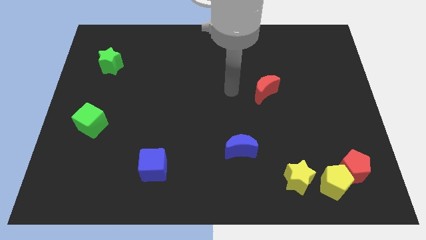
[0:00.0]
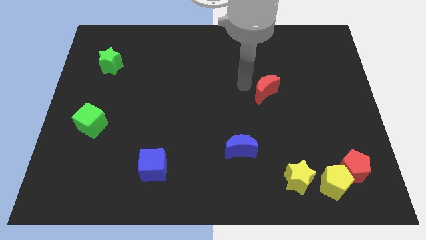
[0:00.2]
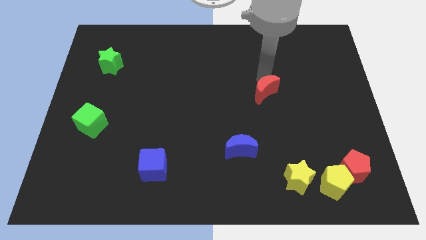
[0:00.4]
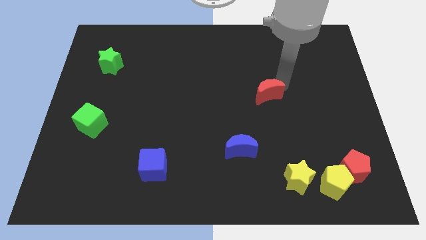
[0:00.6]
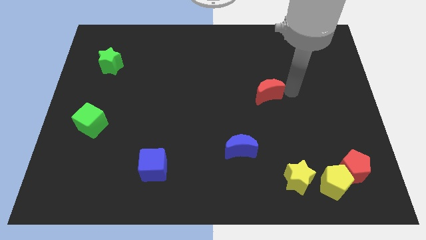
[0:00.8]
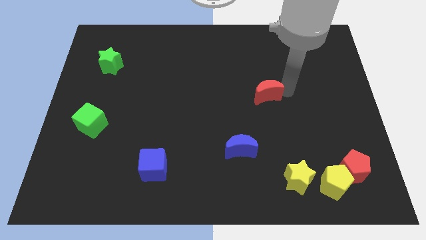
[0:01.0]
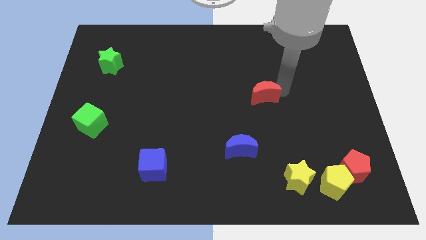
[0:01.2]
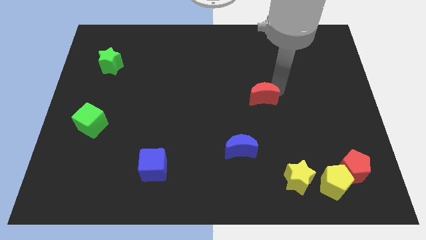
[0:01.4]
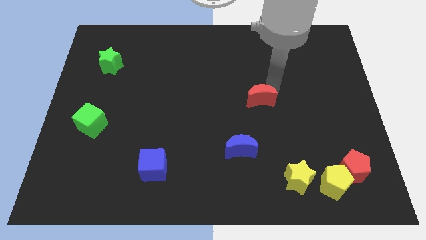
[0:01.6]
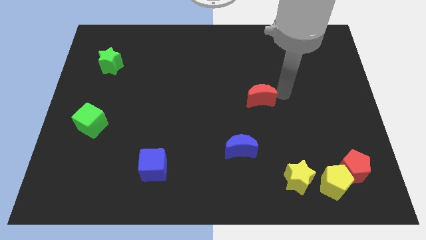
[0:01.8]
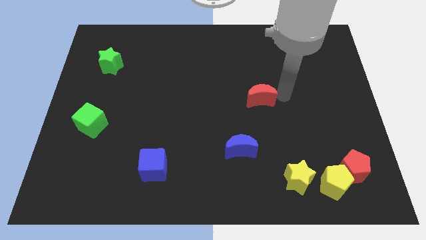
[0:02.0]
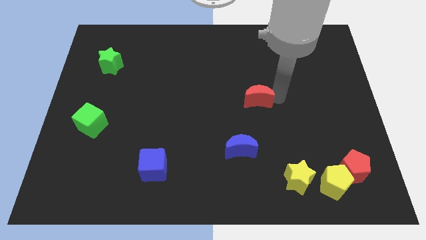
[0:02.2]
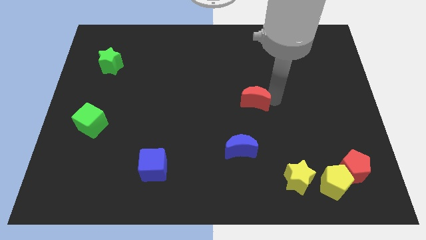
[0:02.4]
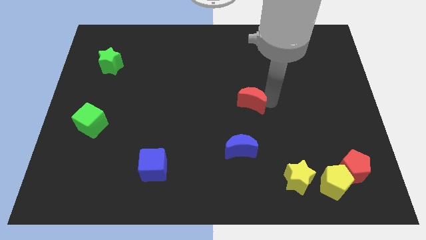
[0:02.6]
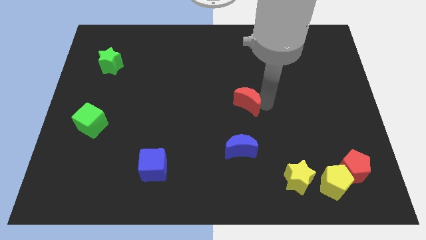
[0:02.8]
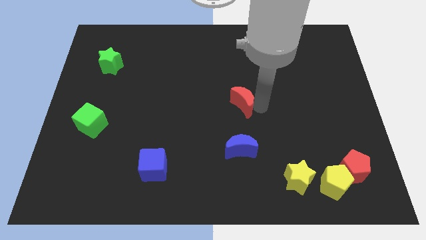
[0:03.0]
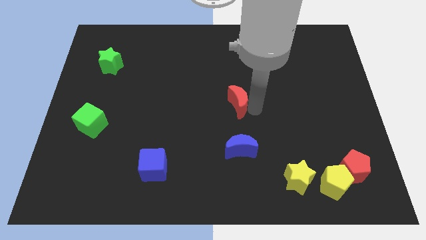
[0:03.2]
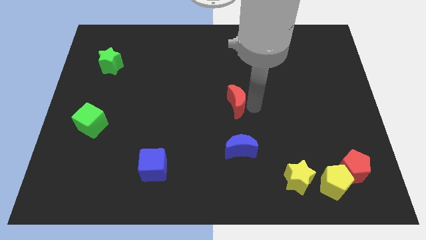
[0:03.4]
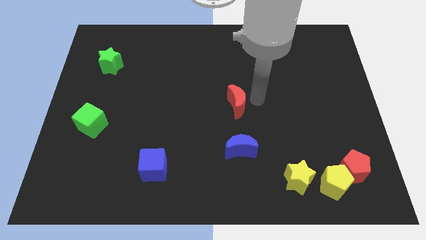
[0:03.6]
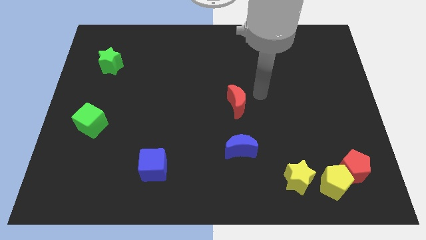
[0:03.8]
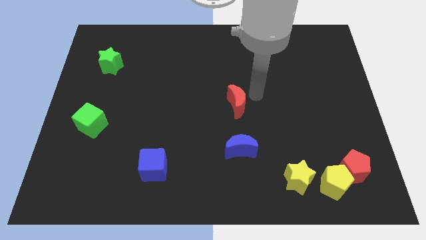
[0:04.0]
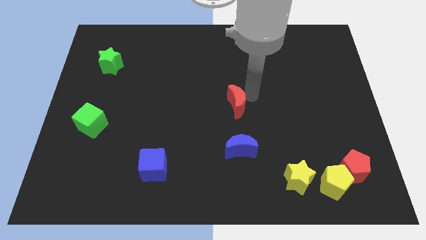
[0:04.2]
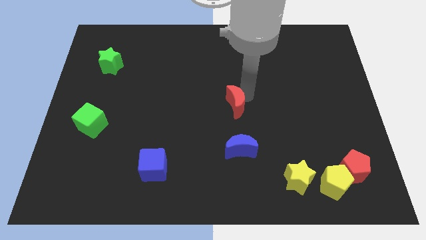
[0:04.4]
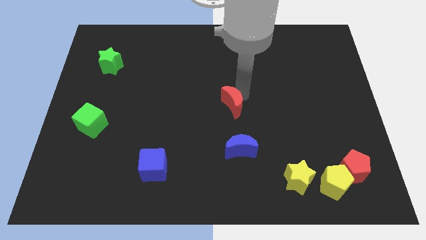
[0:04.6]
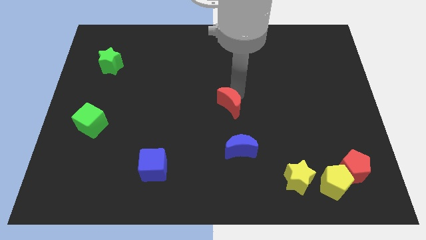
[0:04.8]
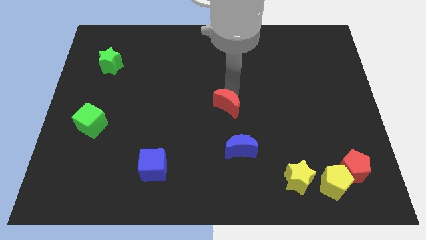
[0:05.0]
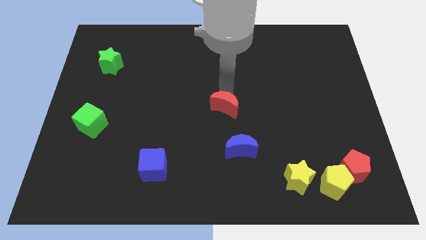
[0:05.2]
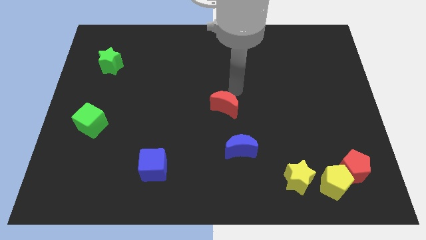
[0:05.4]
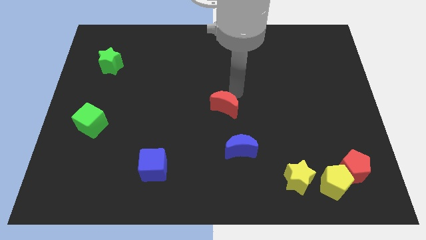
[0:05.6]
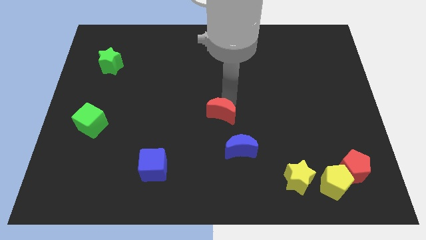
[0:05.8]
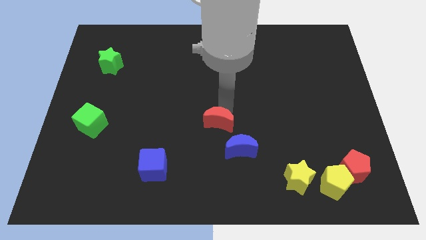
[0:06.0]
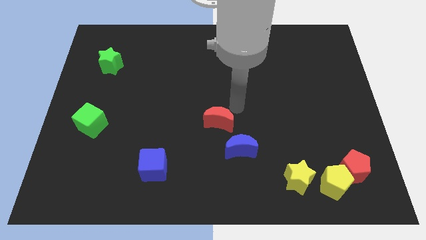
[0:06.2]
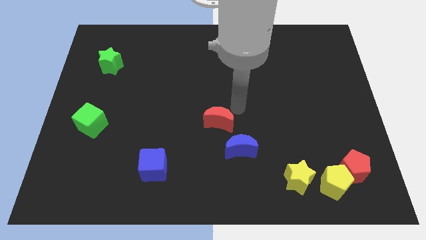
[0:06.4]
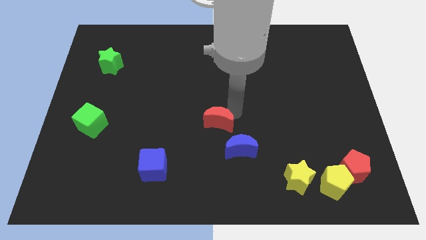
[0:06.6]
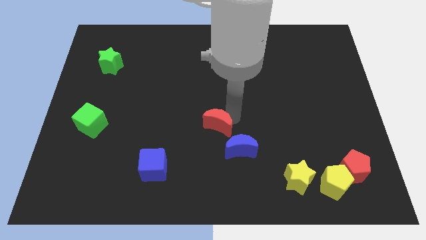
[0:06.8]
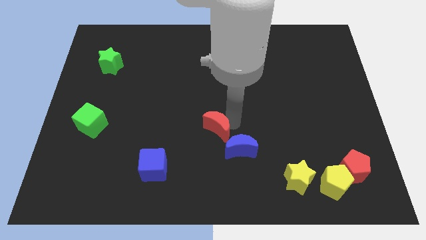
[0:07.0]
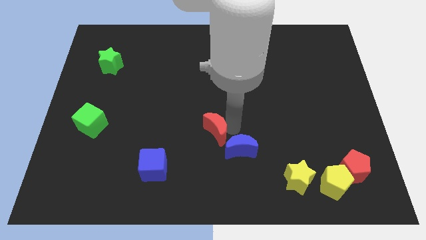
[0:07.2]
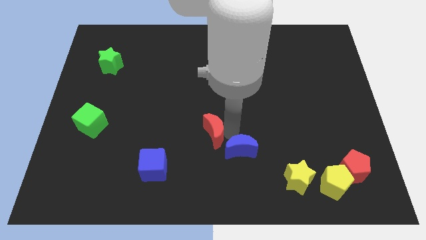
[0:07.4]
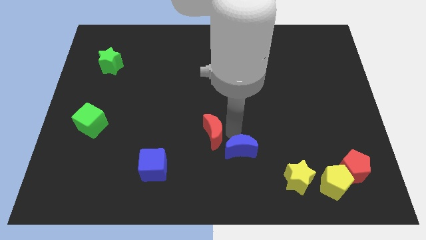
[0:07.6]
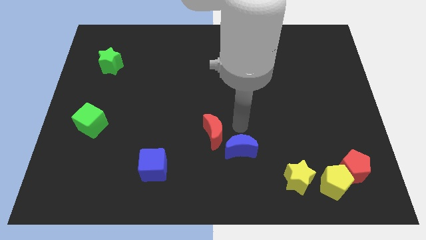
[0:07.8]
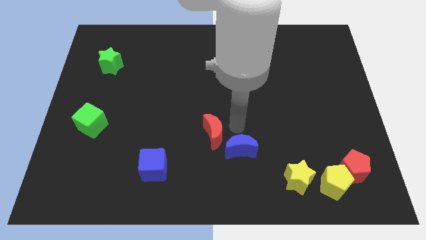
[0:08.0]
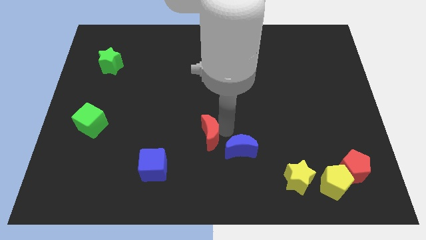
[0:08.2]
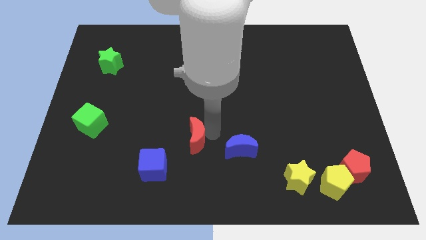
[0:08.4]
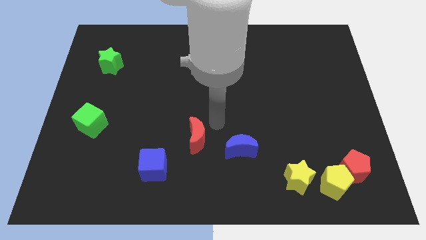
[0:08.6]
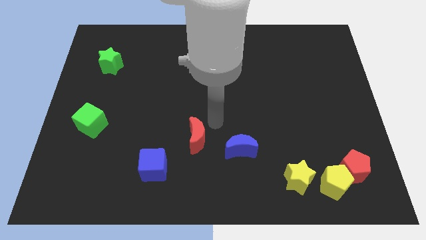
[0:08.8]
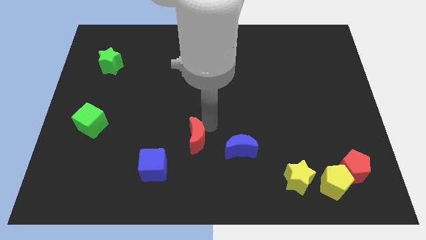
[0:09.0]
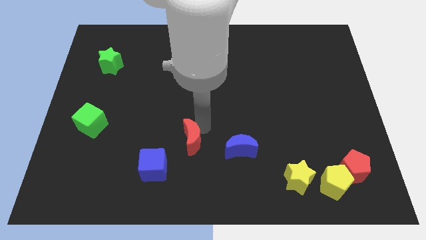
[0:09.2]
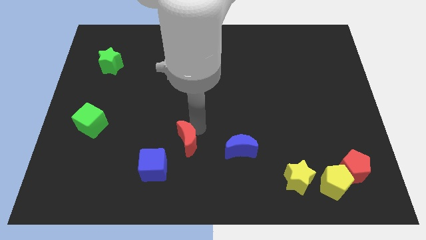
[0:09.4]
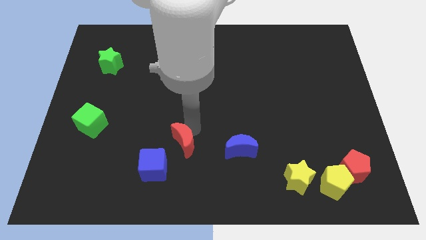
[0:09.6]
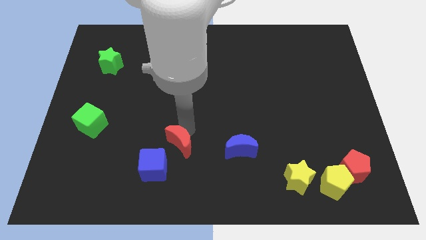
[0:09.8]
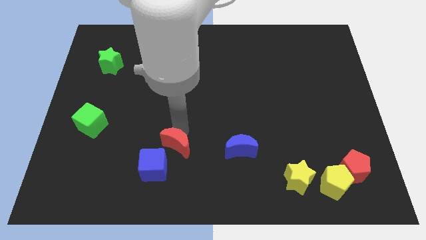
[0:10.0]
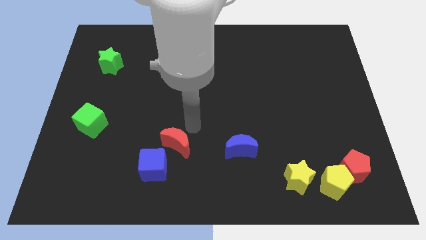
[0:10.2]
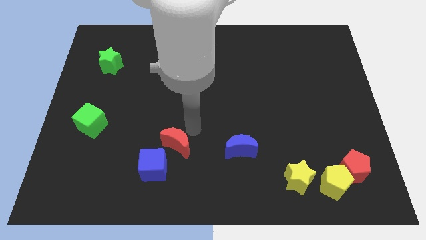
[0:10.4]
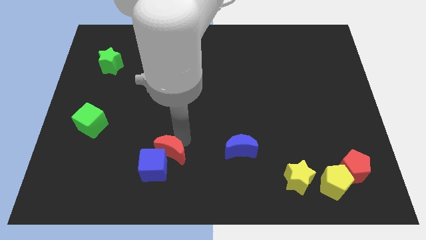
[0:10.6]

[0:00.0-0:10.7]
move the red moon close to the blue cube

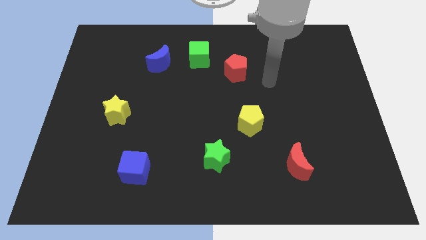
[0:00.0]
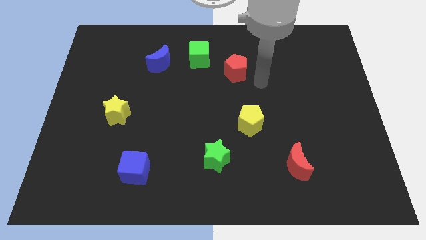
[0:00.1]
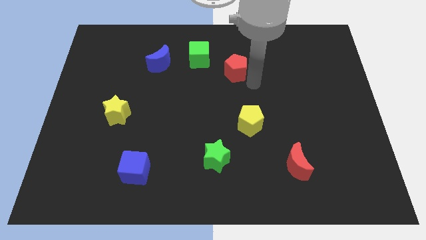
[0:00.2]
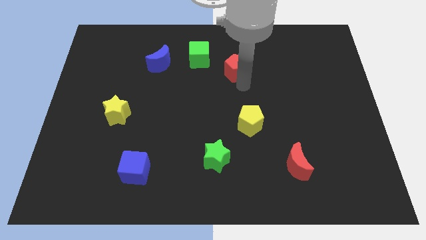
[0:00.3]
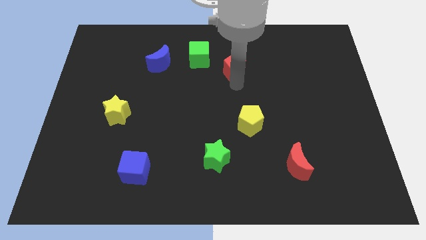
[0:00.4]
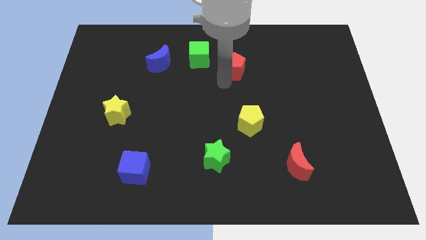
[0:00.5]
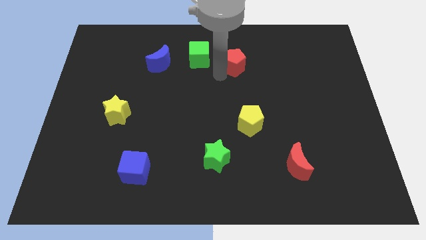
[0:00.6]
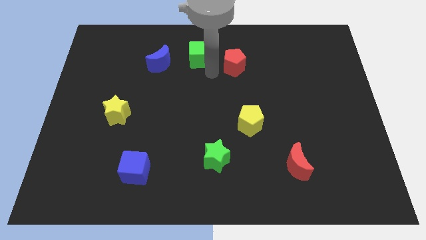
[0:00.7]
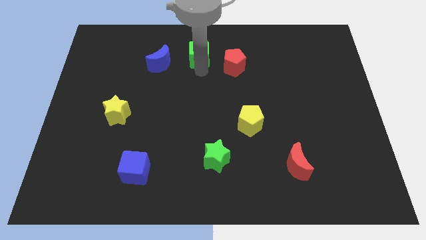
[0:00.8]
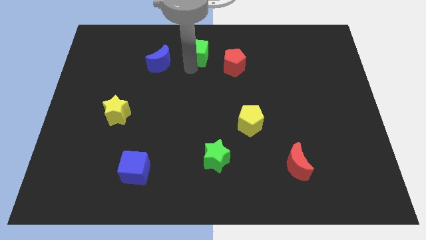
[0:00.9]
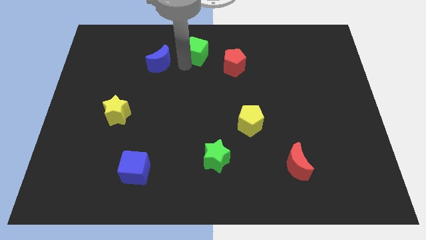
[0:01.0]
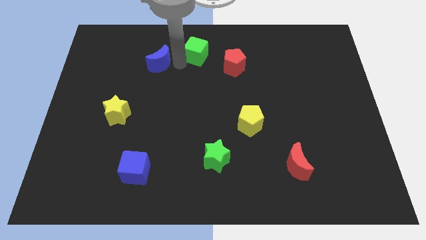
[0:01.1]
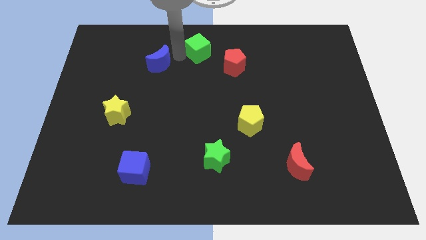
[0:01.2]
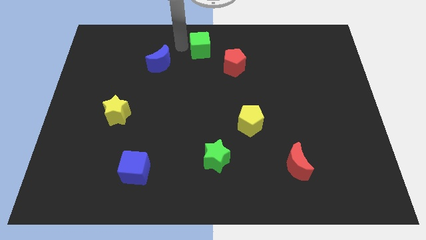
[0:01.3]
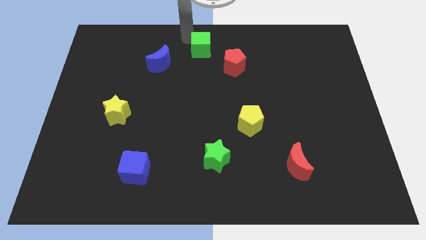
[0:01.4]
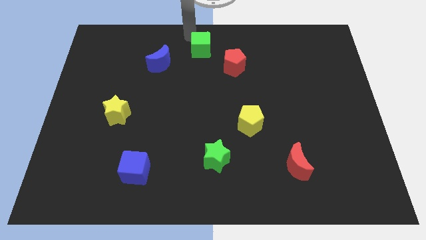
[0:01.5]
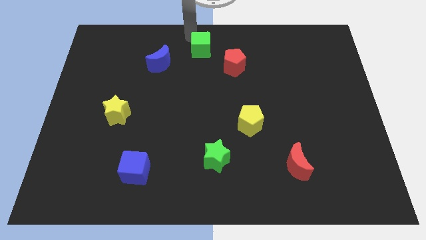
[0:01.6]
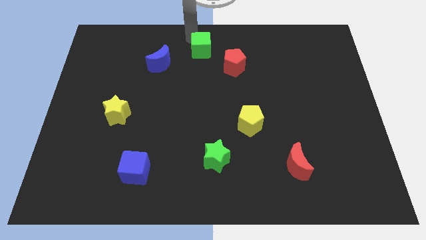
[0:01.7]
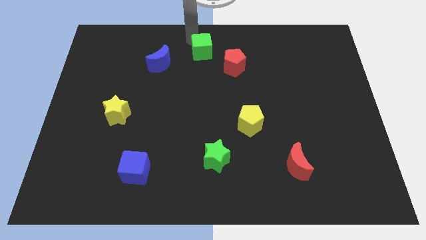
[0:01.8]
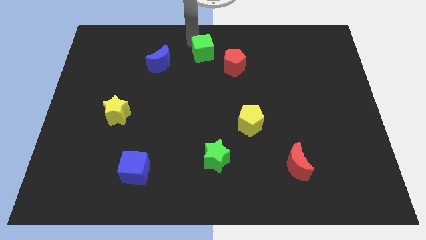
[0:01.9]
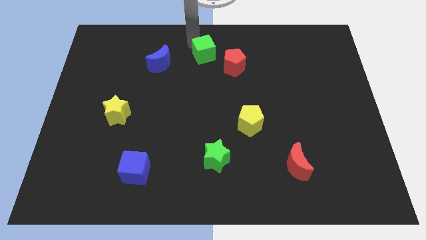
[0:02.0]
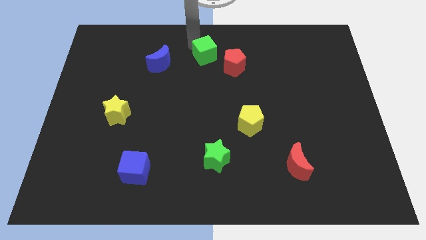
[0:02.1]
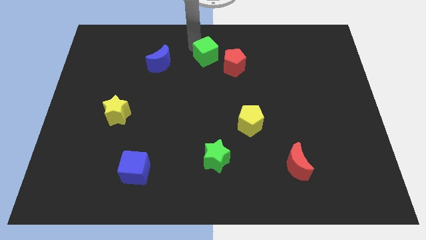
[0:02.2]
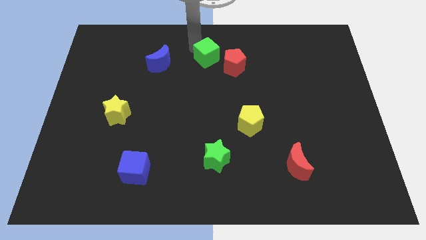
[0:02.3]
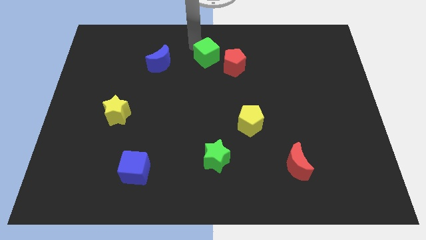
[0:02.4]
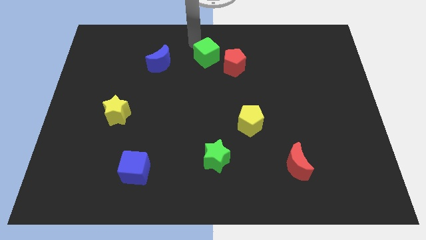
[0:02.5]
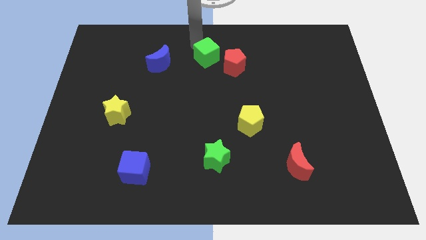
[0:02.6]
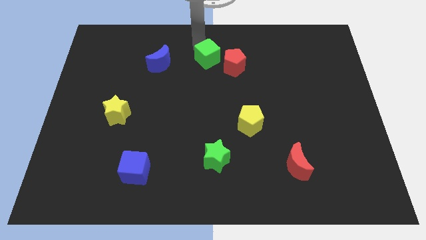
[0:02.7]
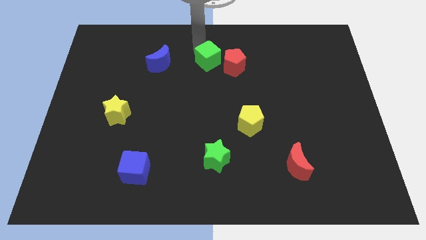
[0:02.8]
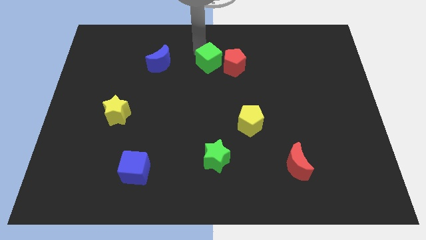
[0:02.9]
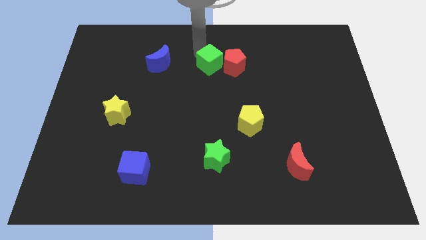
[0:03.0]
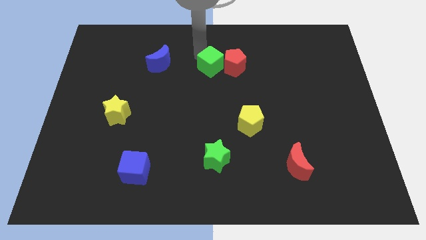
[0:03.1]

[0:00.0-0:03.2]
put the green cube next to the red pentagon
